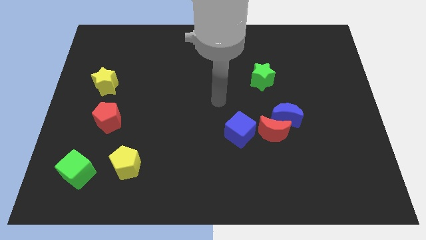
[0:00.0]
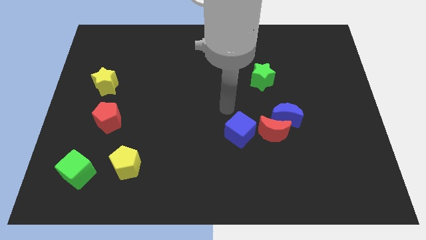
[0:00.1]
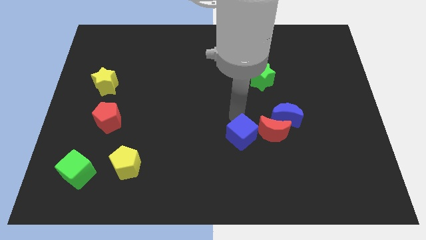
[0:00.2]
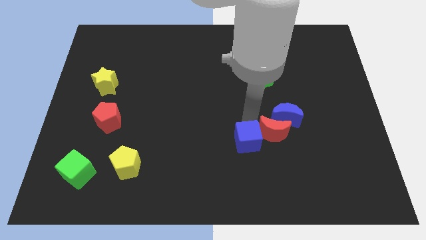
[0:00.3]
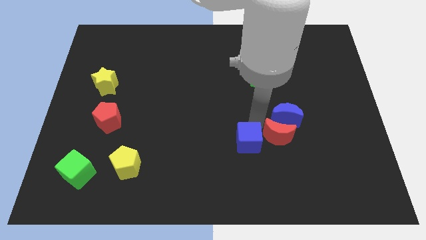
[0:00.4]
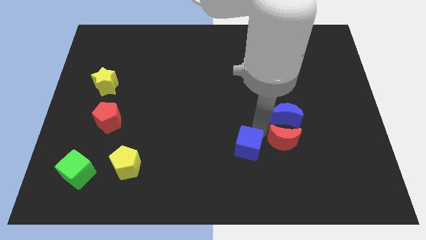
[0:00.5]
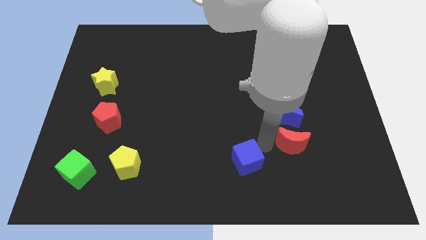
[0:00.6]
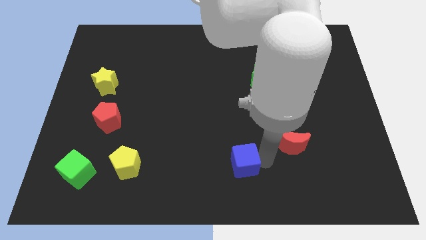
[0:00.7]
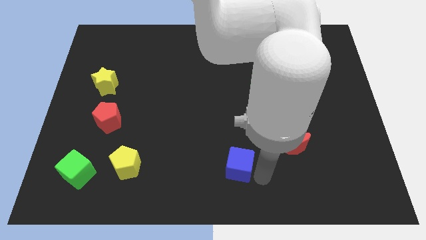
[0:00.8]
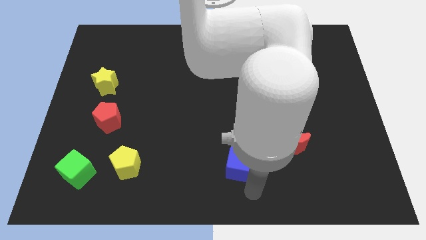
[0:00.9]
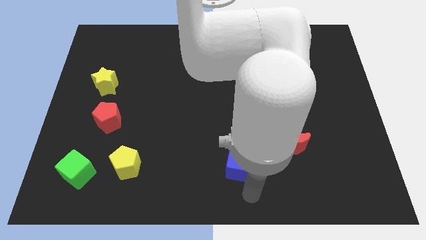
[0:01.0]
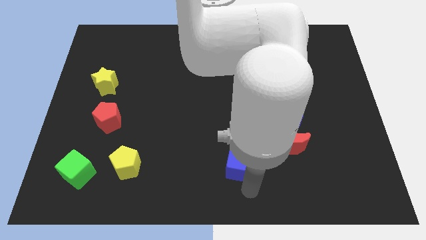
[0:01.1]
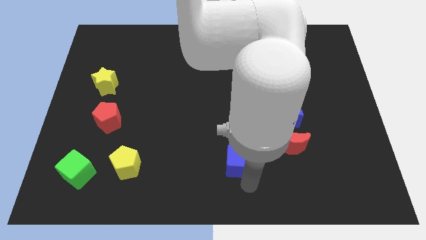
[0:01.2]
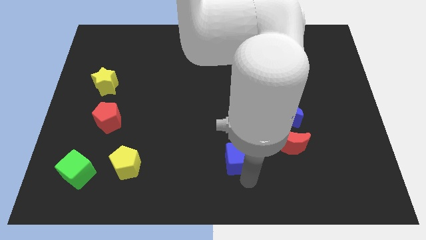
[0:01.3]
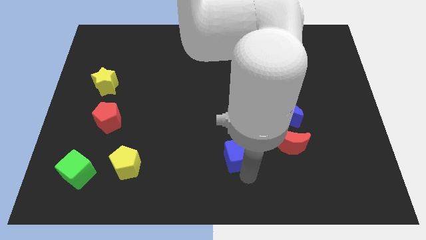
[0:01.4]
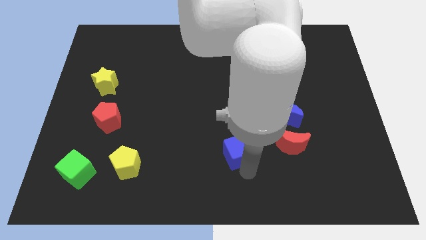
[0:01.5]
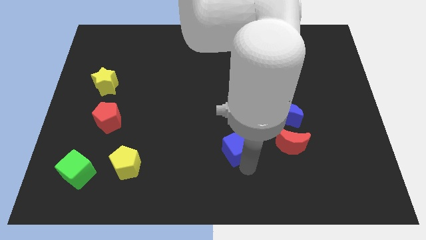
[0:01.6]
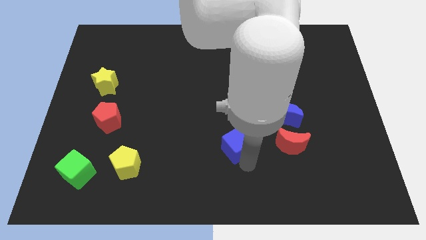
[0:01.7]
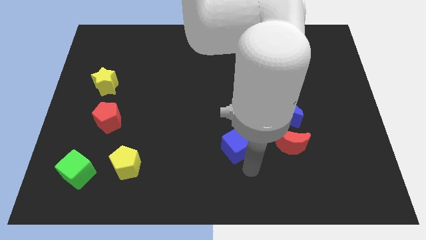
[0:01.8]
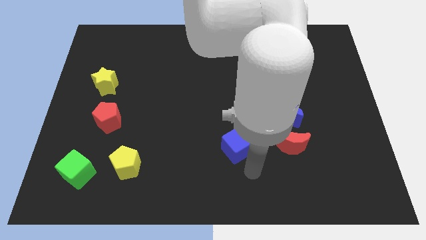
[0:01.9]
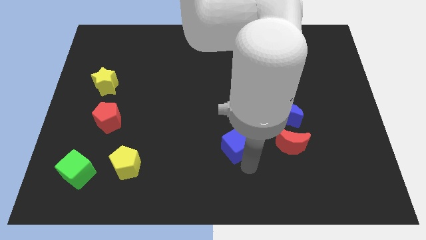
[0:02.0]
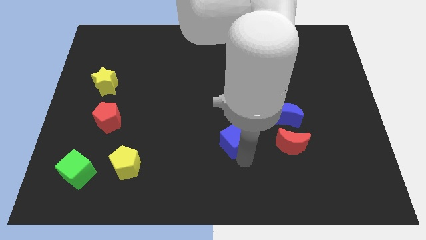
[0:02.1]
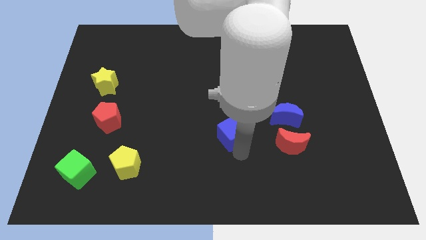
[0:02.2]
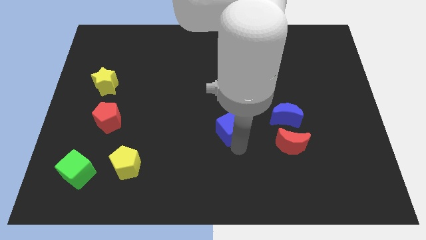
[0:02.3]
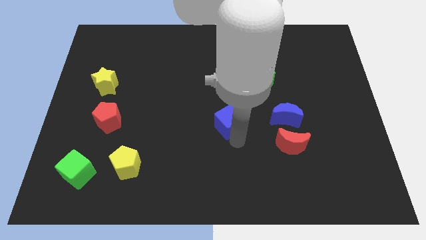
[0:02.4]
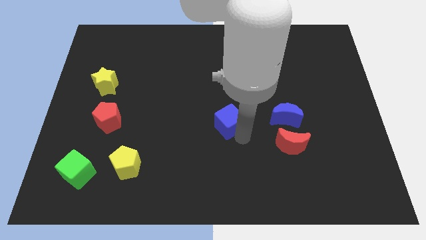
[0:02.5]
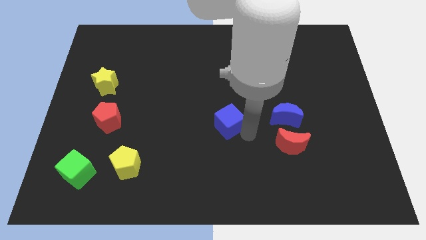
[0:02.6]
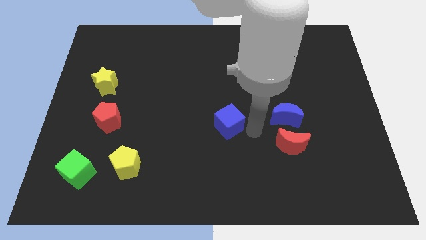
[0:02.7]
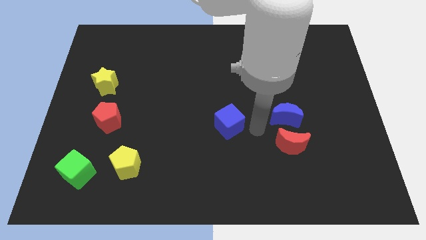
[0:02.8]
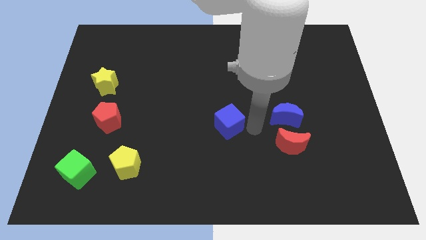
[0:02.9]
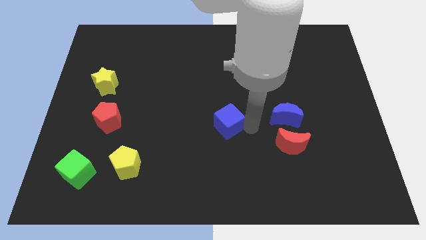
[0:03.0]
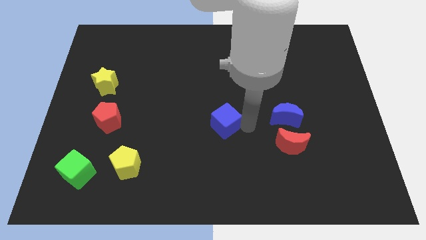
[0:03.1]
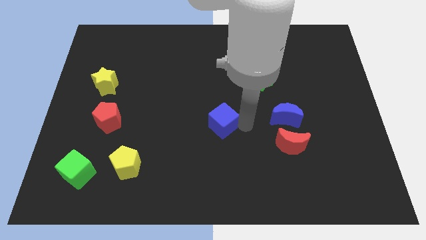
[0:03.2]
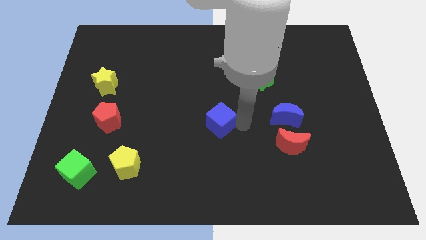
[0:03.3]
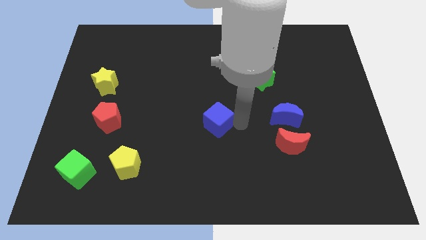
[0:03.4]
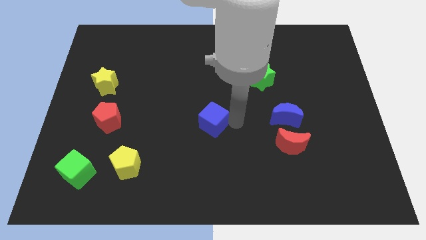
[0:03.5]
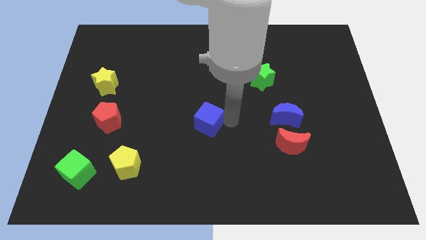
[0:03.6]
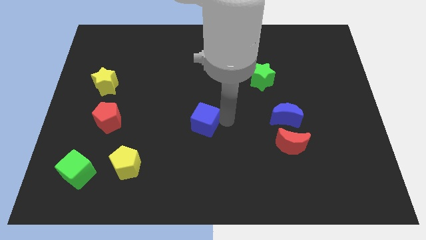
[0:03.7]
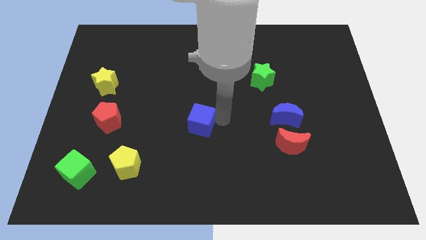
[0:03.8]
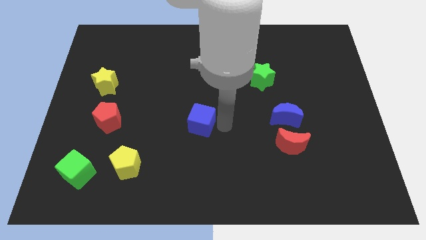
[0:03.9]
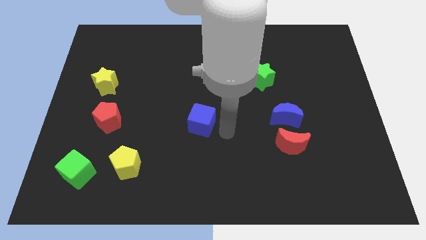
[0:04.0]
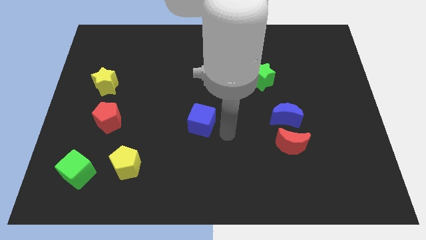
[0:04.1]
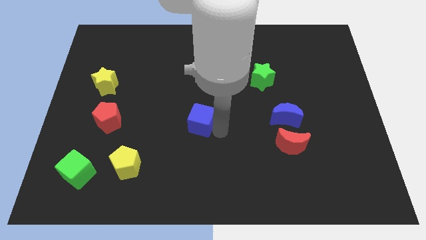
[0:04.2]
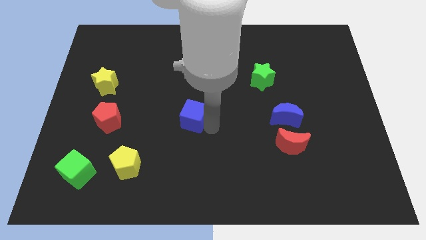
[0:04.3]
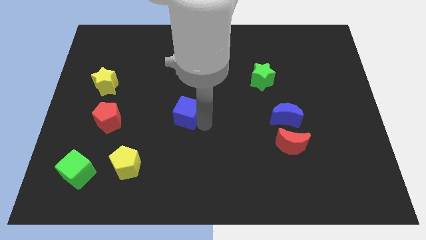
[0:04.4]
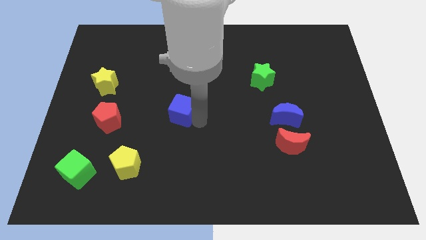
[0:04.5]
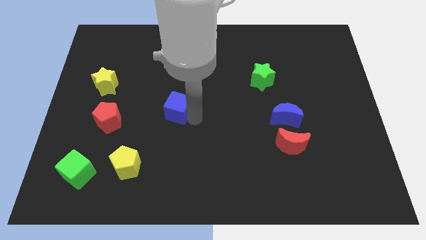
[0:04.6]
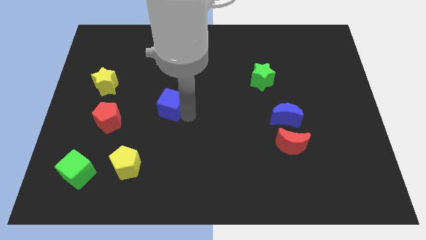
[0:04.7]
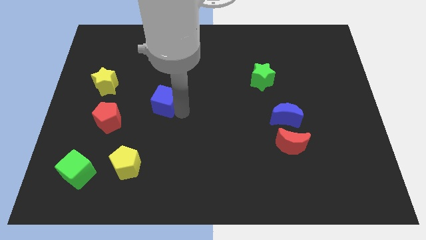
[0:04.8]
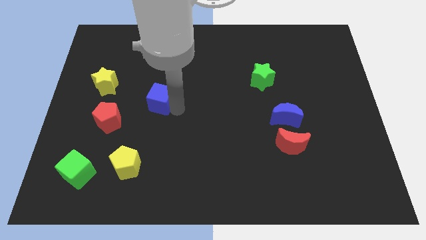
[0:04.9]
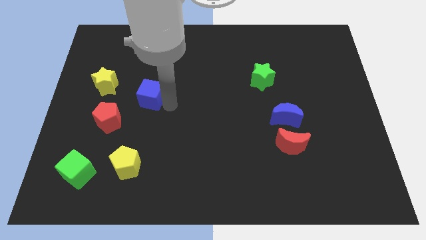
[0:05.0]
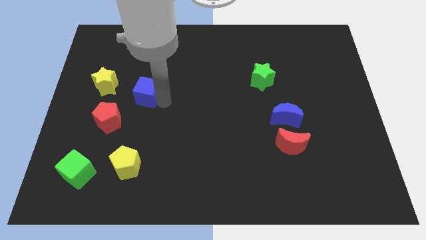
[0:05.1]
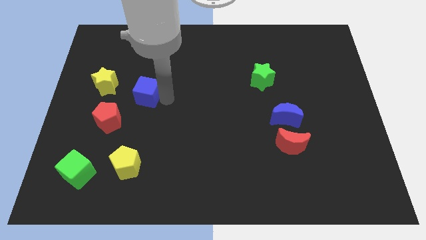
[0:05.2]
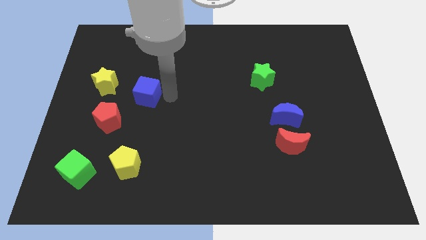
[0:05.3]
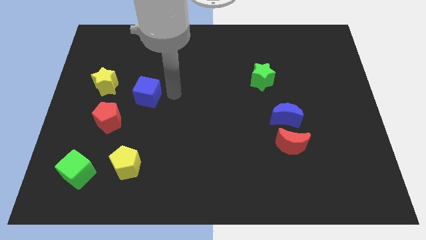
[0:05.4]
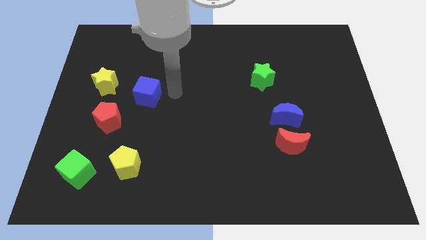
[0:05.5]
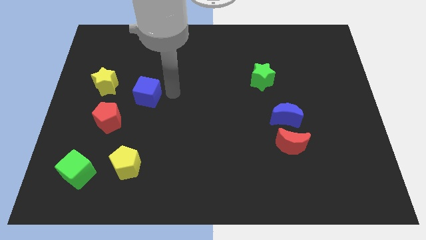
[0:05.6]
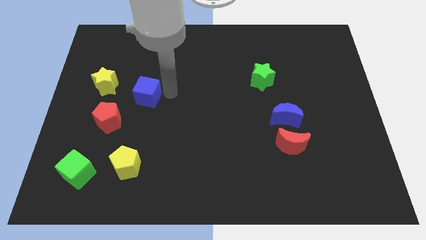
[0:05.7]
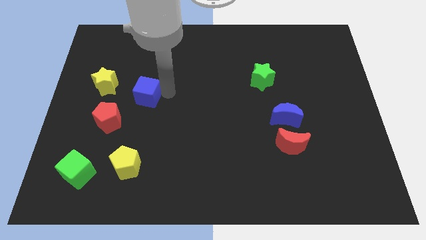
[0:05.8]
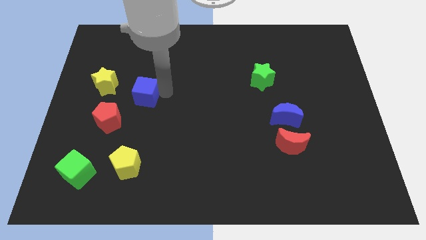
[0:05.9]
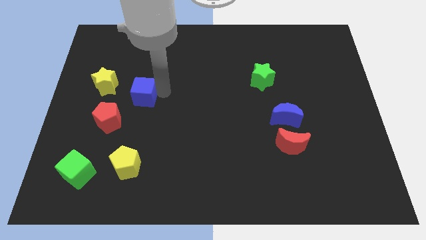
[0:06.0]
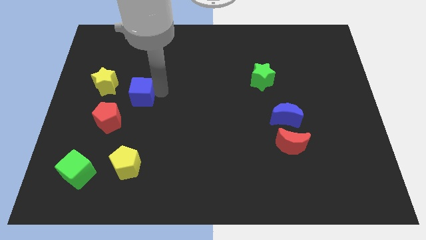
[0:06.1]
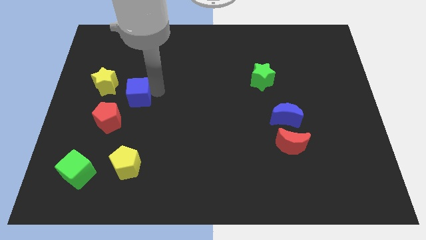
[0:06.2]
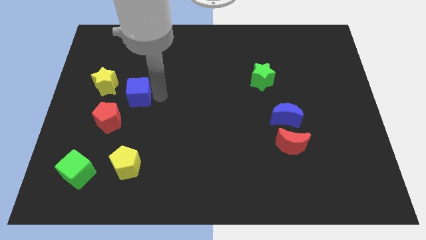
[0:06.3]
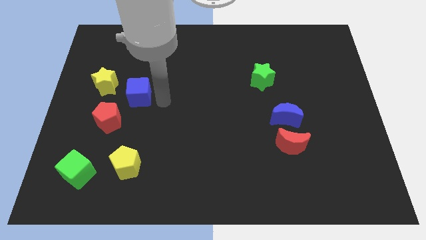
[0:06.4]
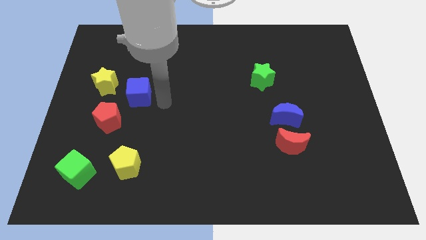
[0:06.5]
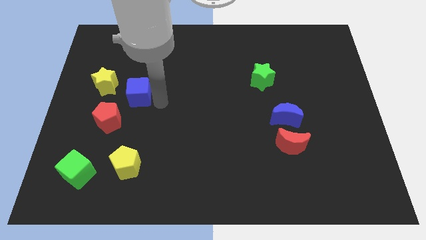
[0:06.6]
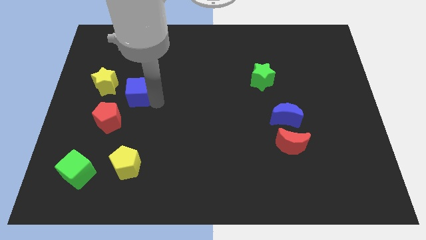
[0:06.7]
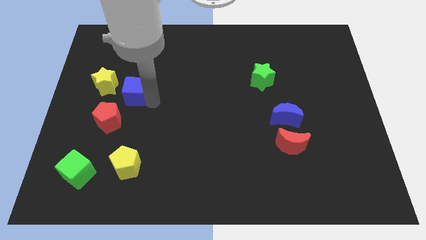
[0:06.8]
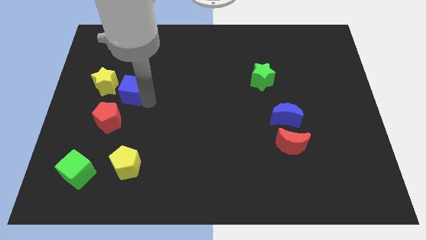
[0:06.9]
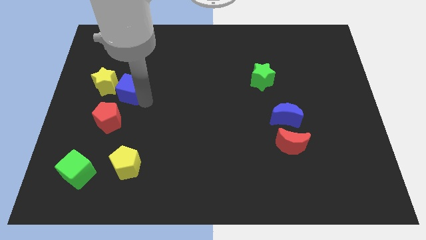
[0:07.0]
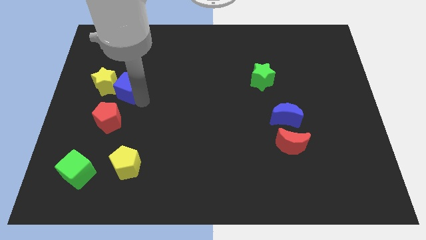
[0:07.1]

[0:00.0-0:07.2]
move the blue cube to the yellow star

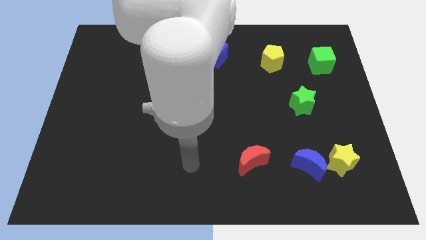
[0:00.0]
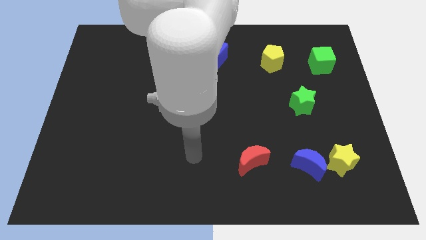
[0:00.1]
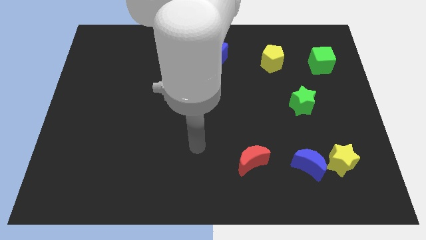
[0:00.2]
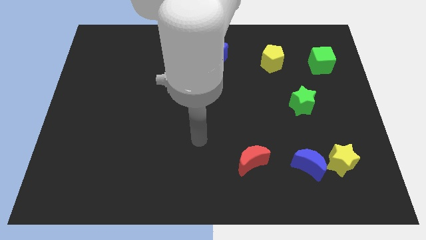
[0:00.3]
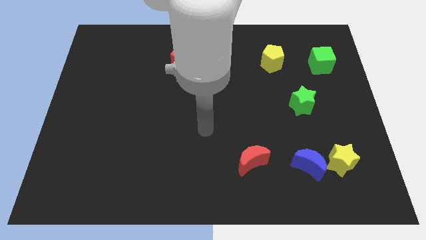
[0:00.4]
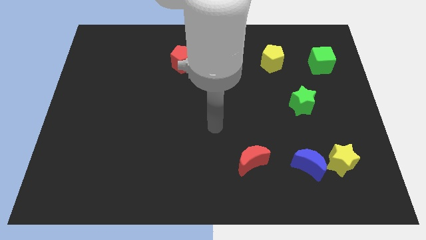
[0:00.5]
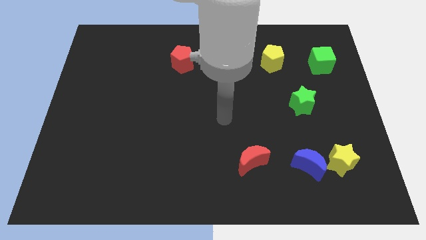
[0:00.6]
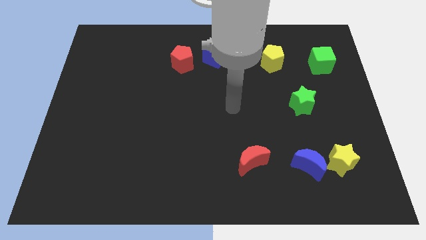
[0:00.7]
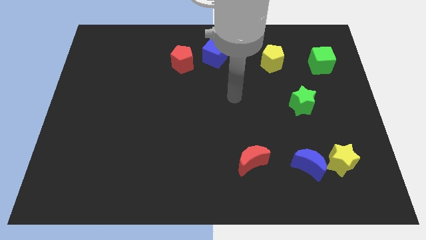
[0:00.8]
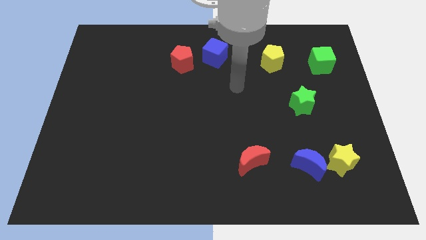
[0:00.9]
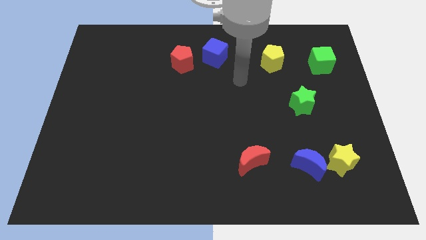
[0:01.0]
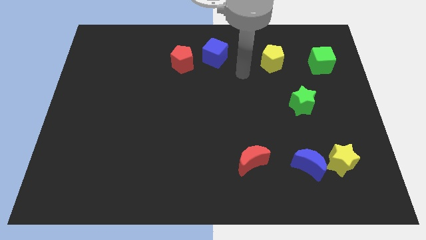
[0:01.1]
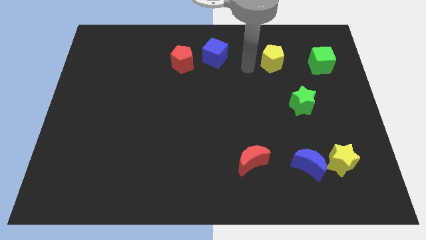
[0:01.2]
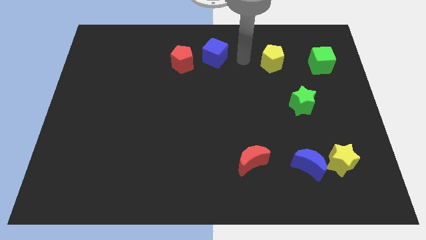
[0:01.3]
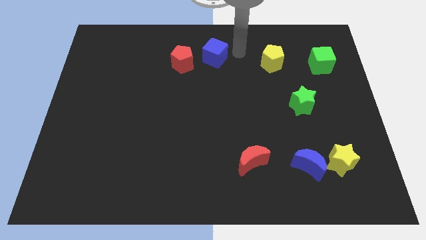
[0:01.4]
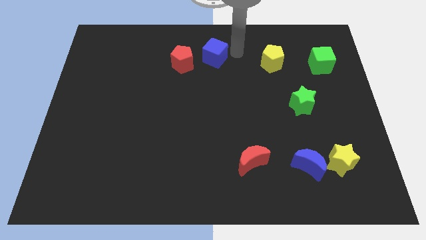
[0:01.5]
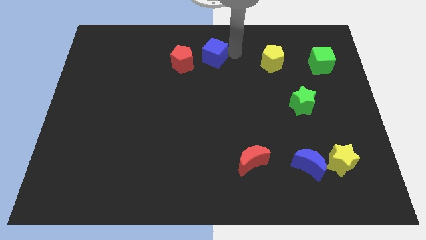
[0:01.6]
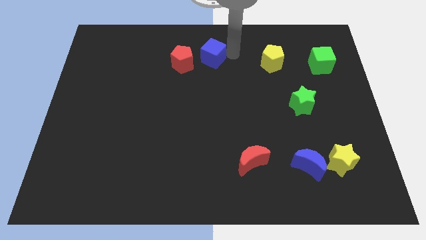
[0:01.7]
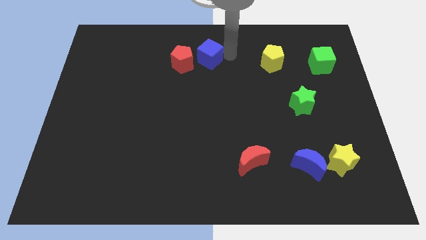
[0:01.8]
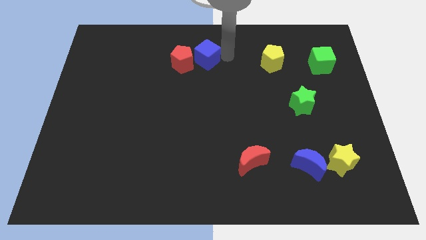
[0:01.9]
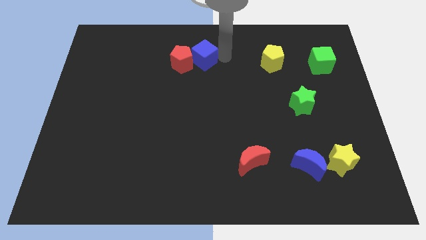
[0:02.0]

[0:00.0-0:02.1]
move the blue cube towards the red pentagon
